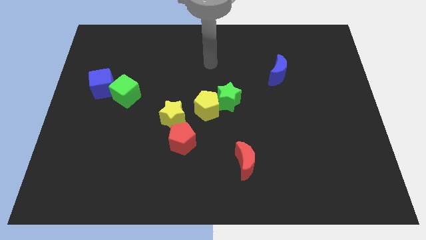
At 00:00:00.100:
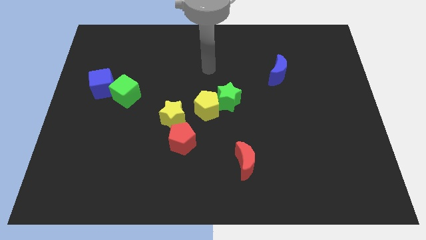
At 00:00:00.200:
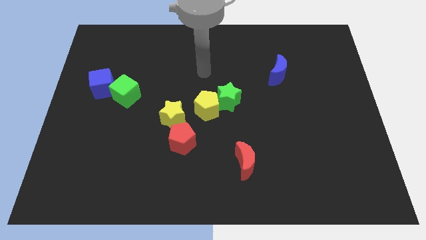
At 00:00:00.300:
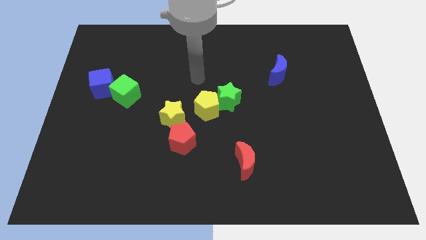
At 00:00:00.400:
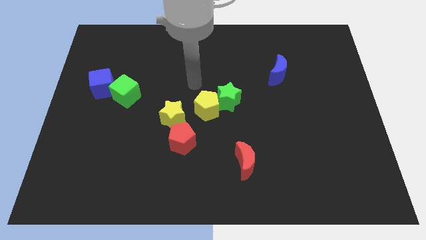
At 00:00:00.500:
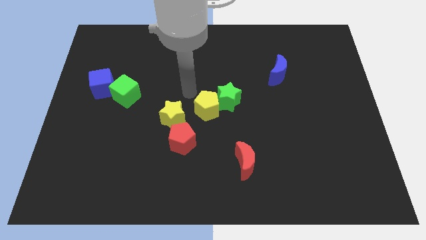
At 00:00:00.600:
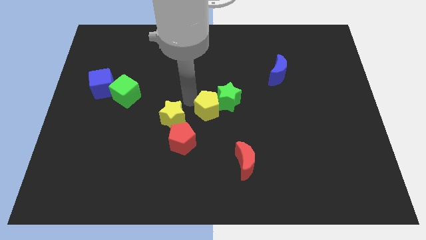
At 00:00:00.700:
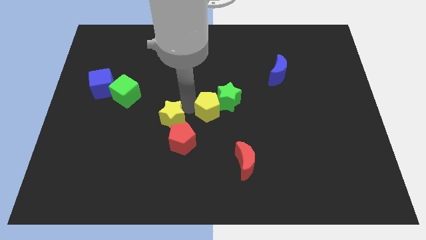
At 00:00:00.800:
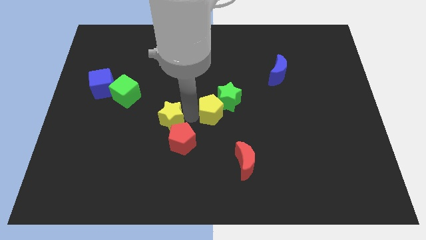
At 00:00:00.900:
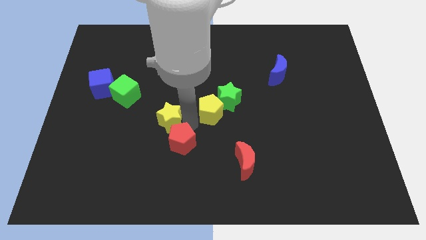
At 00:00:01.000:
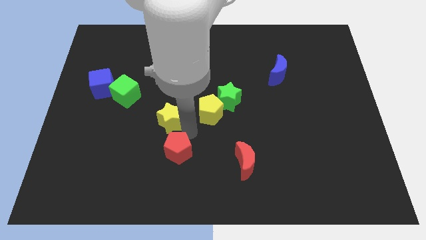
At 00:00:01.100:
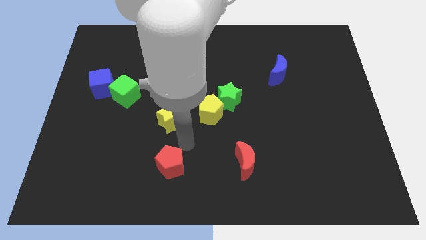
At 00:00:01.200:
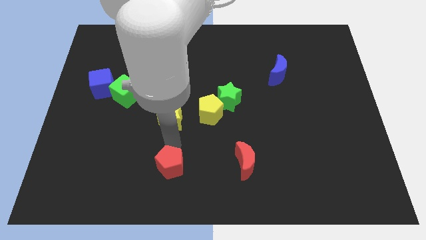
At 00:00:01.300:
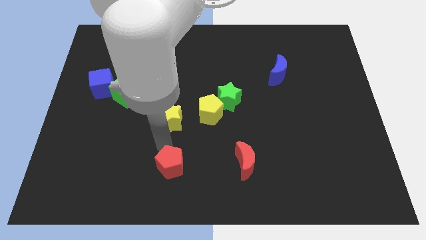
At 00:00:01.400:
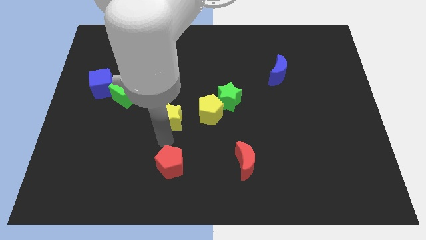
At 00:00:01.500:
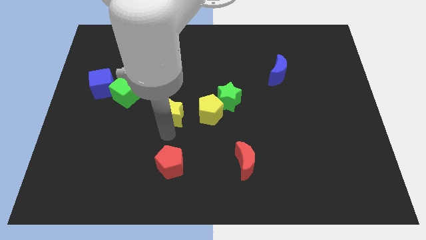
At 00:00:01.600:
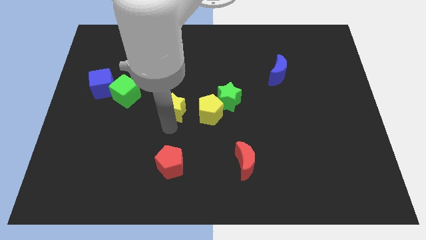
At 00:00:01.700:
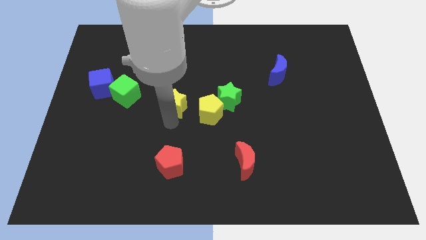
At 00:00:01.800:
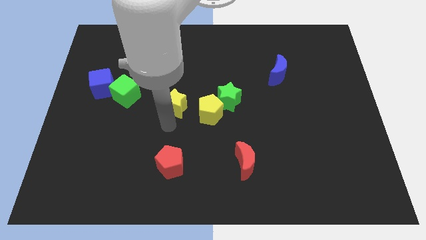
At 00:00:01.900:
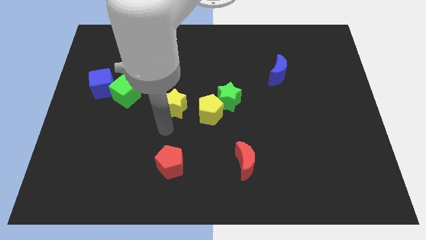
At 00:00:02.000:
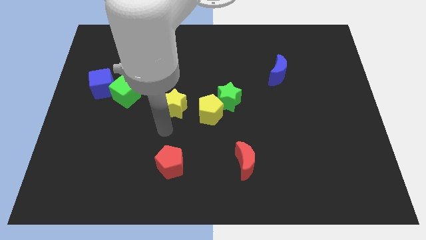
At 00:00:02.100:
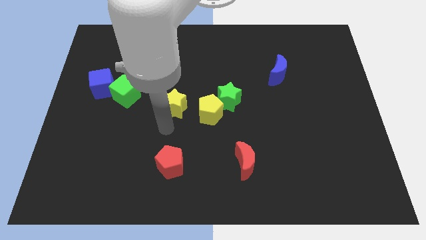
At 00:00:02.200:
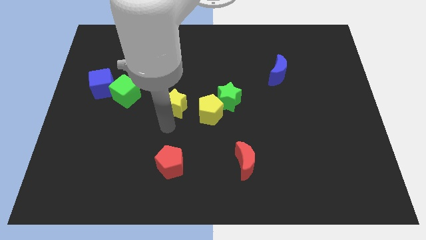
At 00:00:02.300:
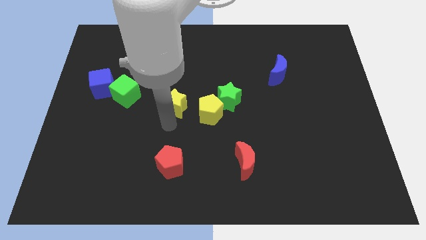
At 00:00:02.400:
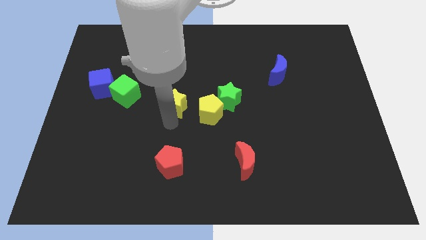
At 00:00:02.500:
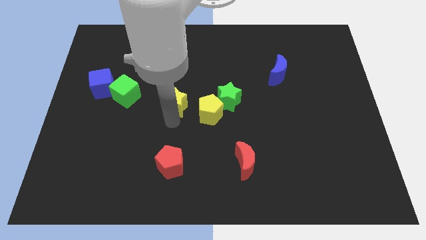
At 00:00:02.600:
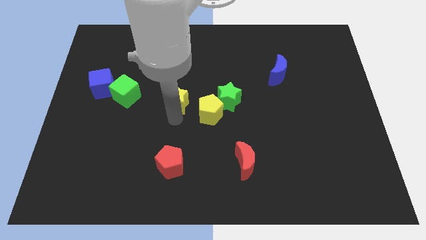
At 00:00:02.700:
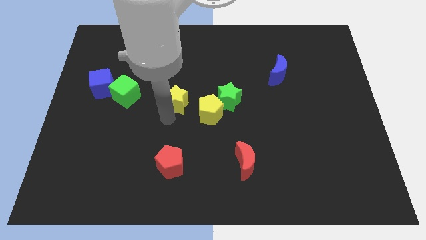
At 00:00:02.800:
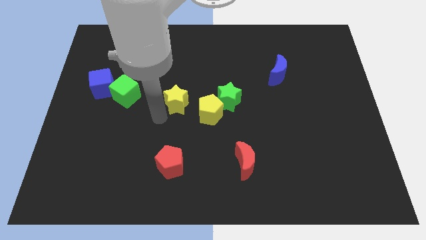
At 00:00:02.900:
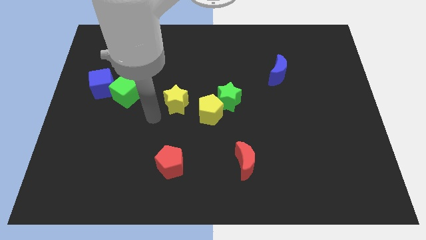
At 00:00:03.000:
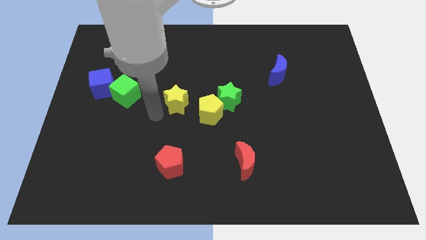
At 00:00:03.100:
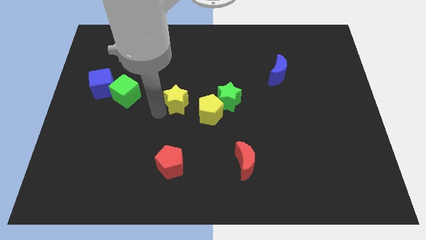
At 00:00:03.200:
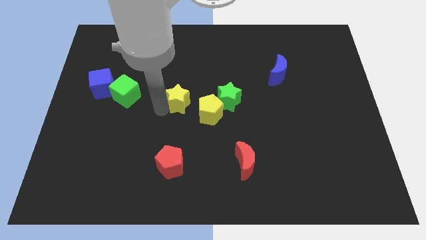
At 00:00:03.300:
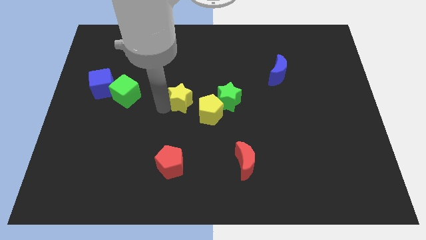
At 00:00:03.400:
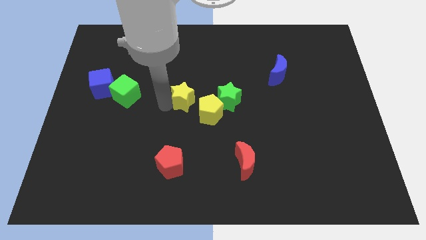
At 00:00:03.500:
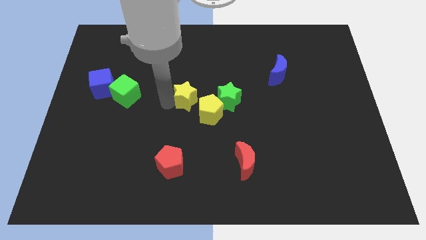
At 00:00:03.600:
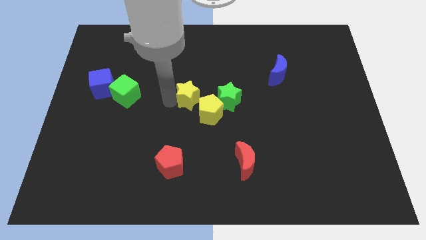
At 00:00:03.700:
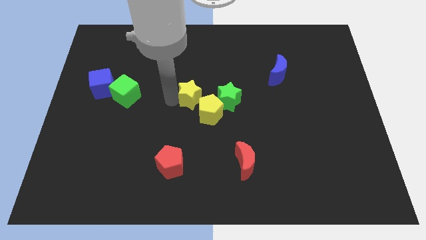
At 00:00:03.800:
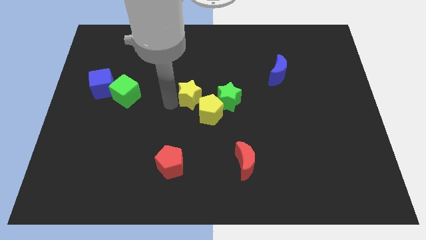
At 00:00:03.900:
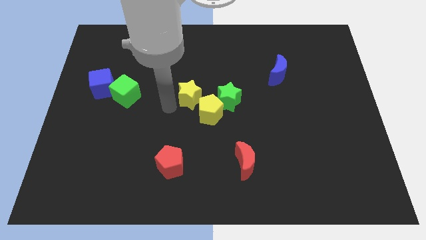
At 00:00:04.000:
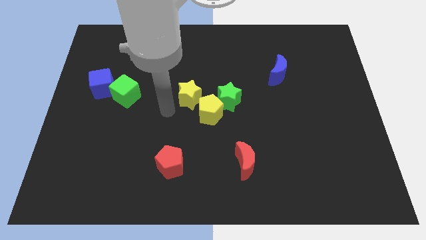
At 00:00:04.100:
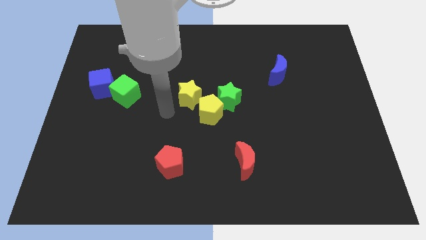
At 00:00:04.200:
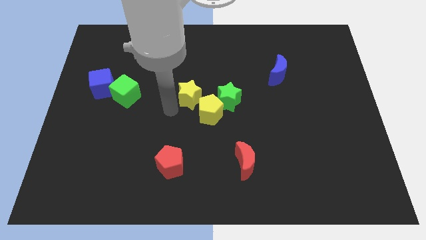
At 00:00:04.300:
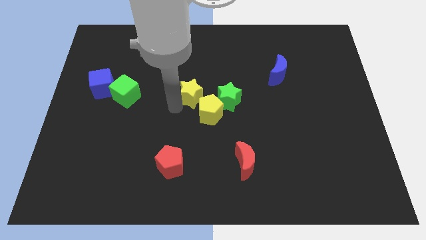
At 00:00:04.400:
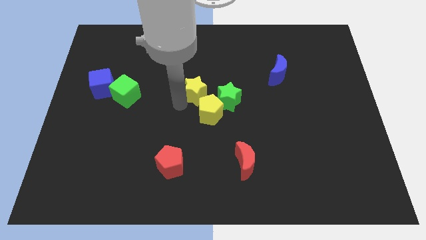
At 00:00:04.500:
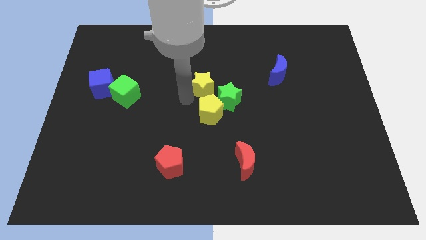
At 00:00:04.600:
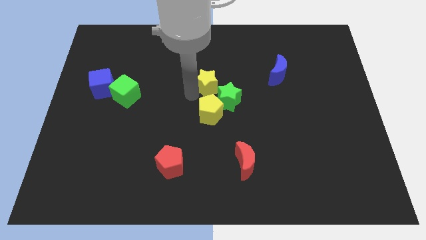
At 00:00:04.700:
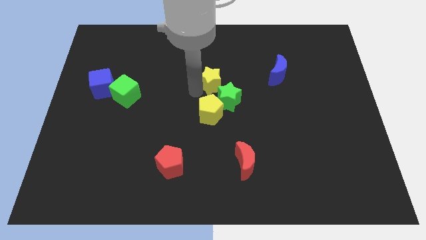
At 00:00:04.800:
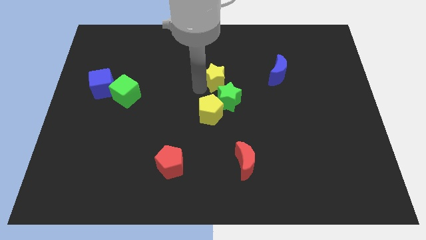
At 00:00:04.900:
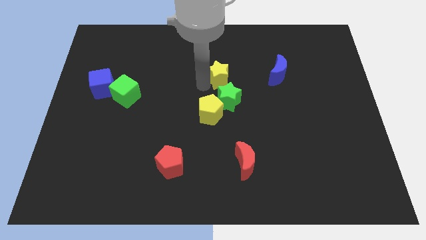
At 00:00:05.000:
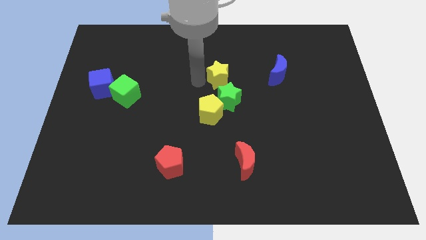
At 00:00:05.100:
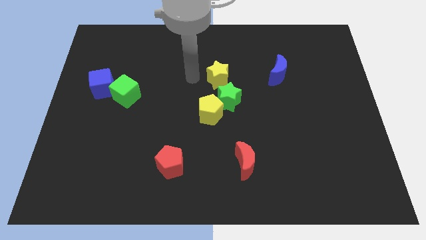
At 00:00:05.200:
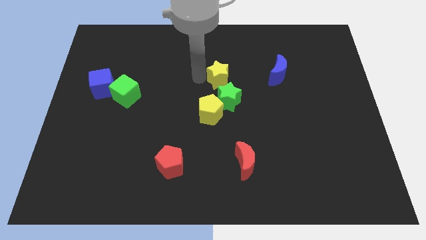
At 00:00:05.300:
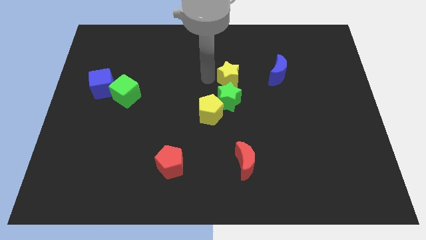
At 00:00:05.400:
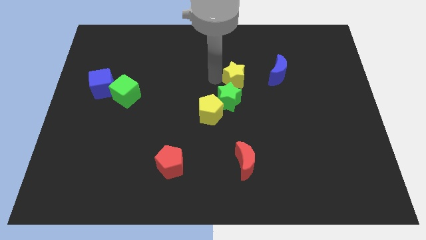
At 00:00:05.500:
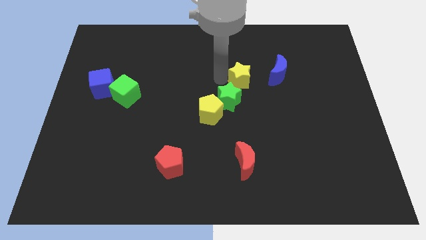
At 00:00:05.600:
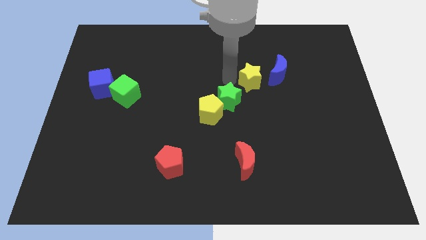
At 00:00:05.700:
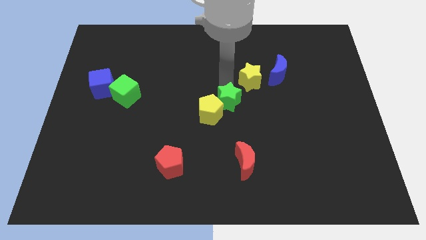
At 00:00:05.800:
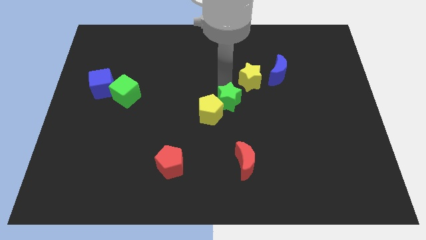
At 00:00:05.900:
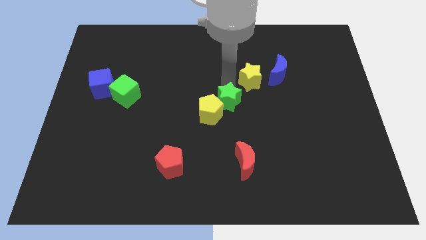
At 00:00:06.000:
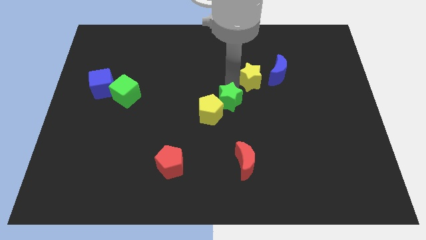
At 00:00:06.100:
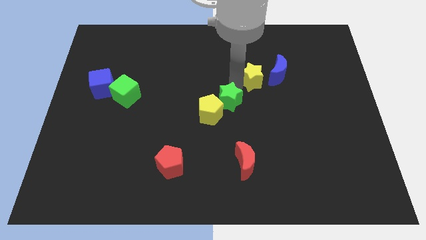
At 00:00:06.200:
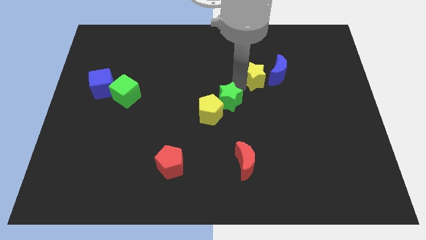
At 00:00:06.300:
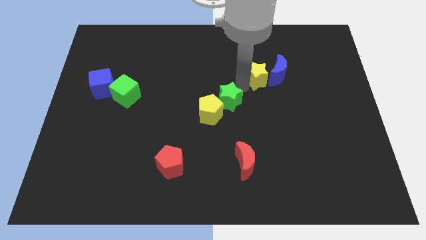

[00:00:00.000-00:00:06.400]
push the yellow star close to the blue moon
